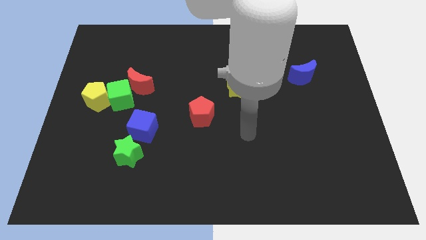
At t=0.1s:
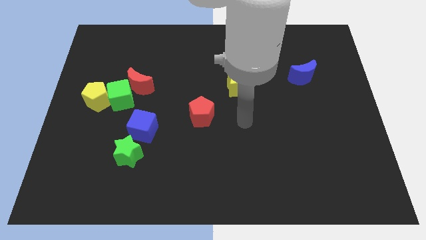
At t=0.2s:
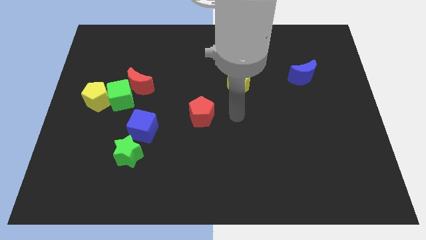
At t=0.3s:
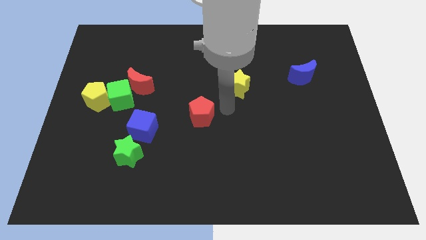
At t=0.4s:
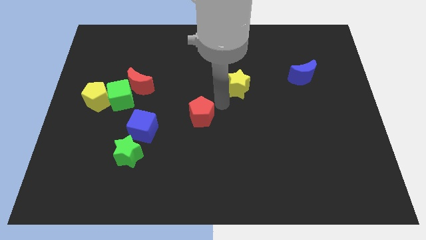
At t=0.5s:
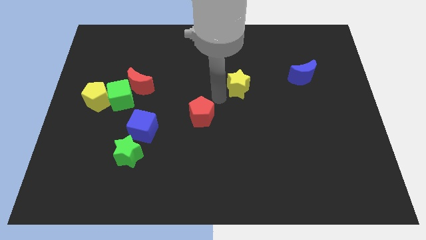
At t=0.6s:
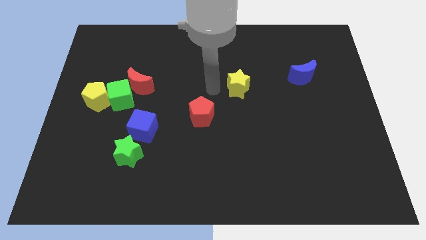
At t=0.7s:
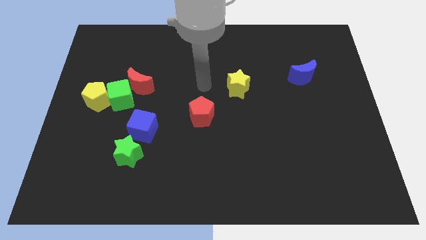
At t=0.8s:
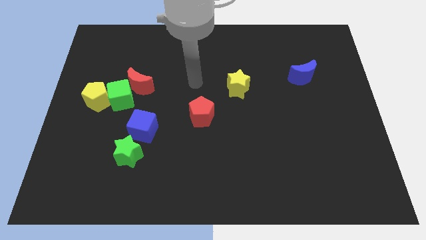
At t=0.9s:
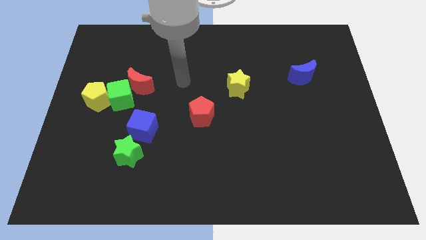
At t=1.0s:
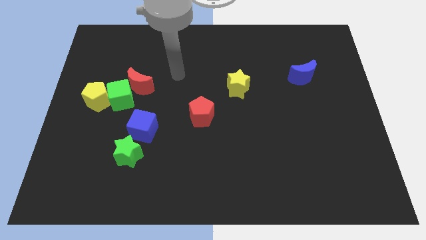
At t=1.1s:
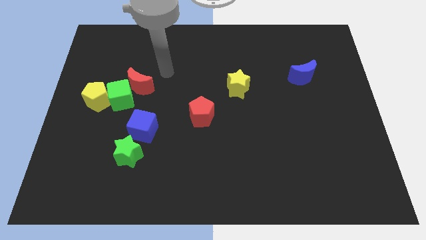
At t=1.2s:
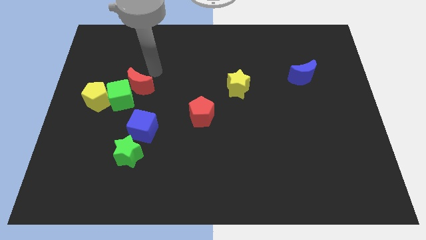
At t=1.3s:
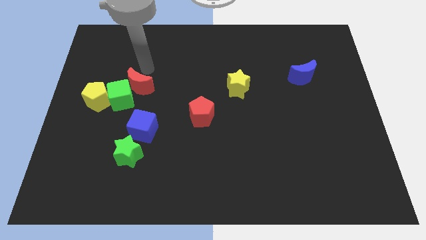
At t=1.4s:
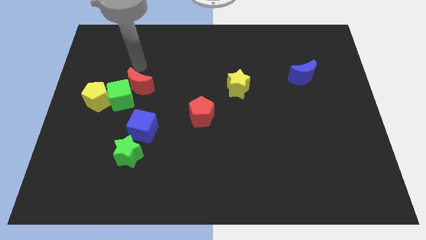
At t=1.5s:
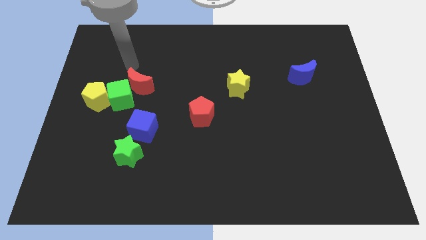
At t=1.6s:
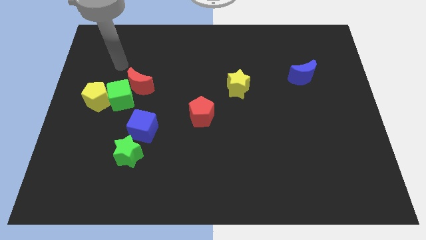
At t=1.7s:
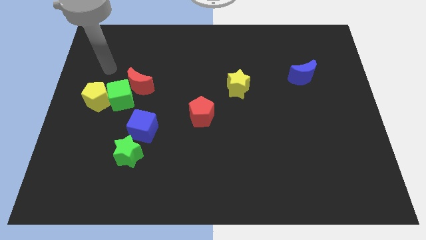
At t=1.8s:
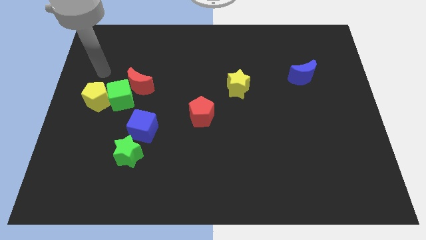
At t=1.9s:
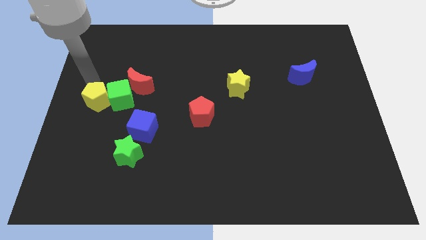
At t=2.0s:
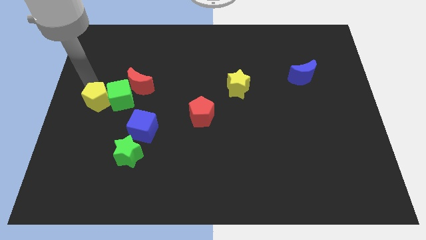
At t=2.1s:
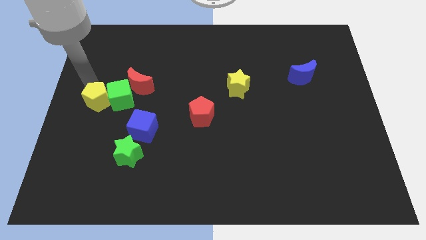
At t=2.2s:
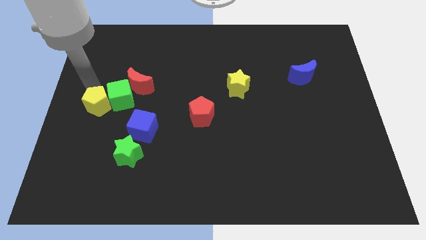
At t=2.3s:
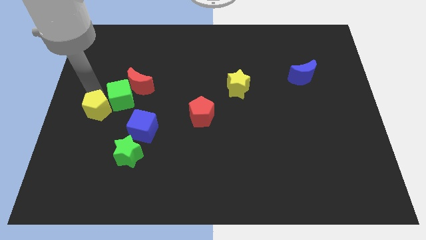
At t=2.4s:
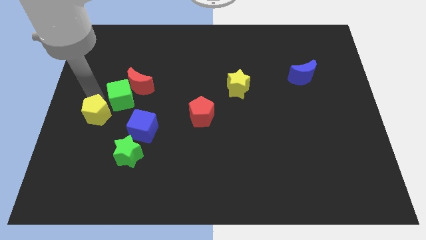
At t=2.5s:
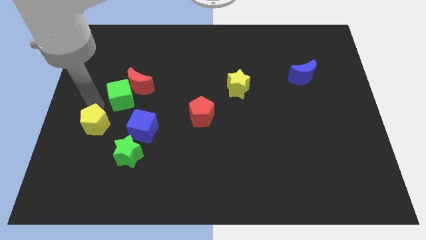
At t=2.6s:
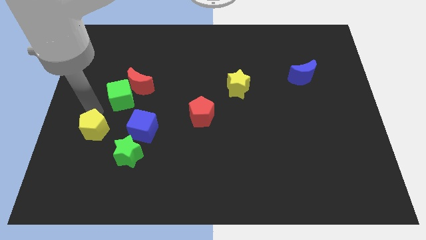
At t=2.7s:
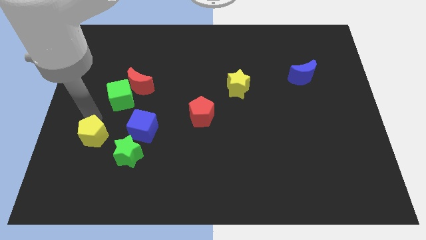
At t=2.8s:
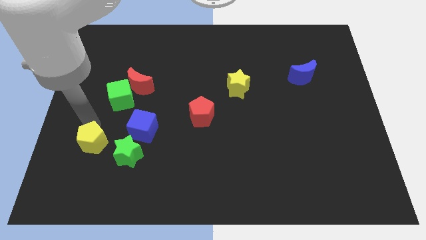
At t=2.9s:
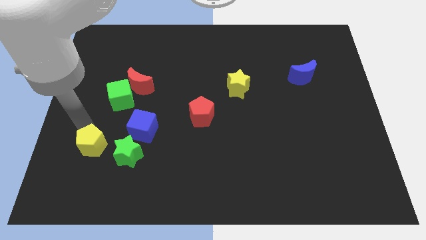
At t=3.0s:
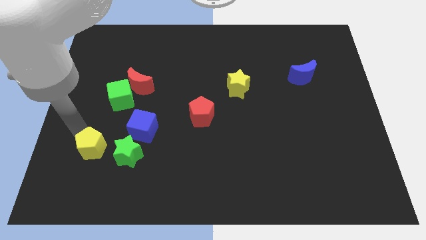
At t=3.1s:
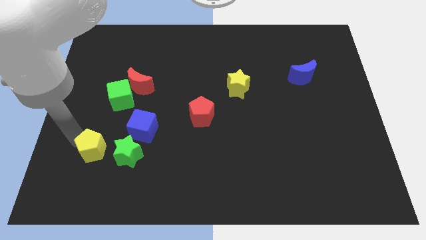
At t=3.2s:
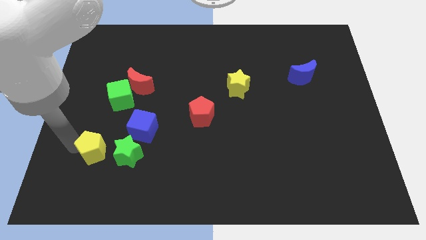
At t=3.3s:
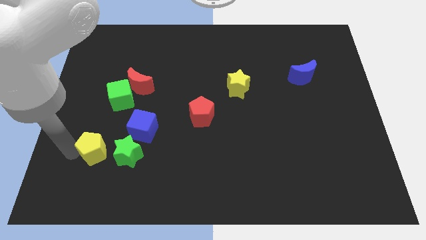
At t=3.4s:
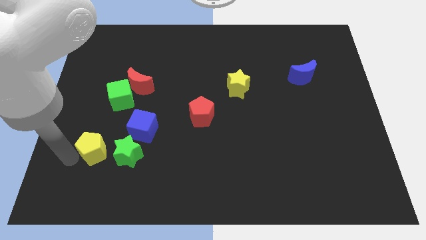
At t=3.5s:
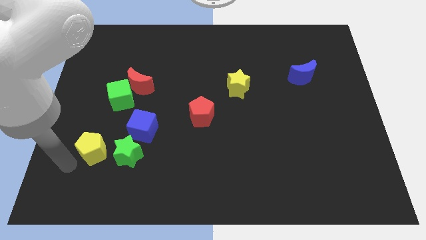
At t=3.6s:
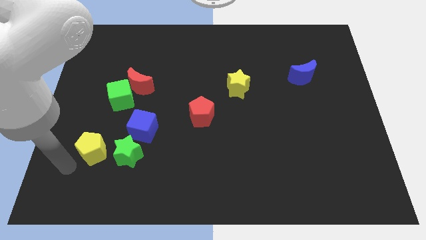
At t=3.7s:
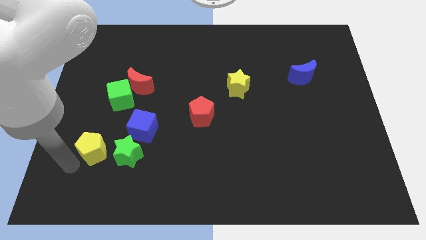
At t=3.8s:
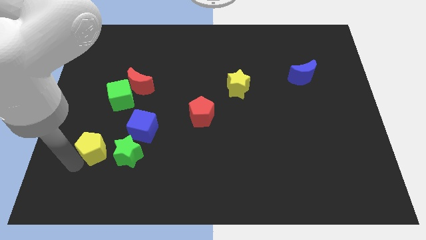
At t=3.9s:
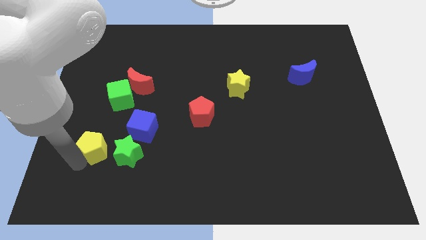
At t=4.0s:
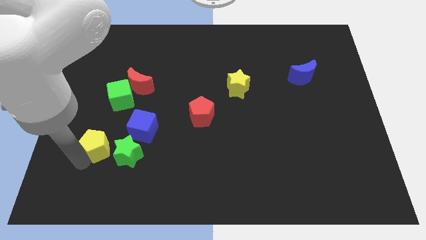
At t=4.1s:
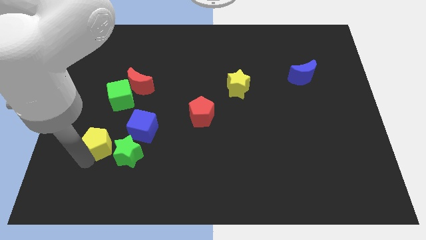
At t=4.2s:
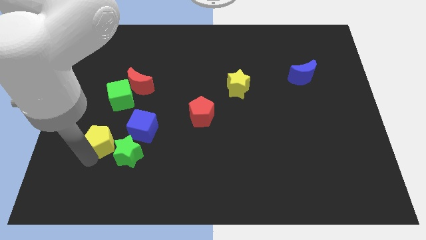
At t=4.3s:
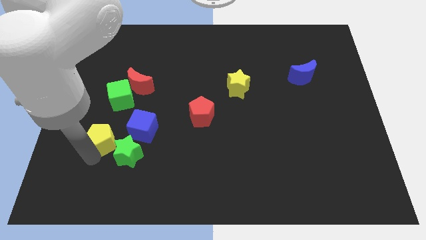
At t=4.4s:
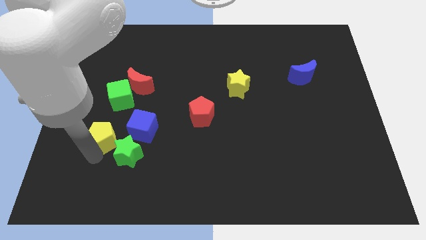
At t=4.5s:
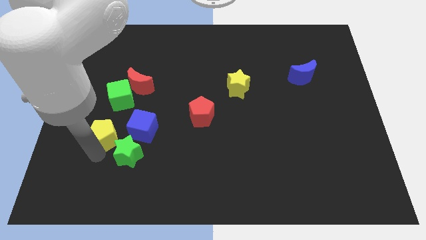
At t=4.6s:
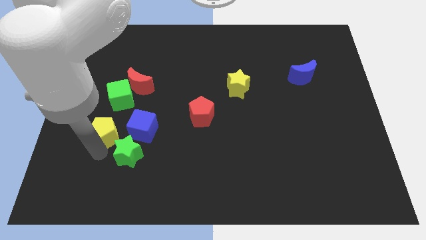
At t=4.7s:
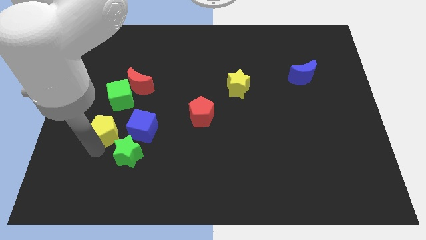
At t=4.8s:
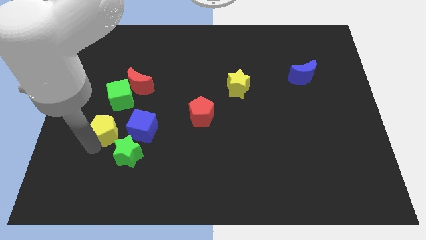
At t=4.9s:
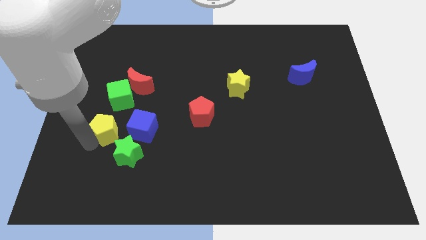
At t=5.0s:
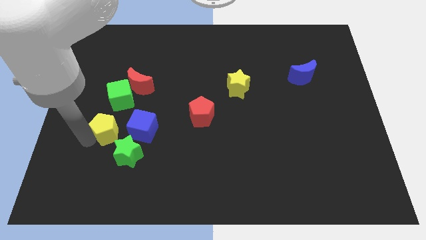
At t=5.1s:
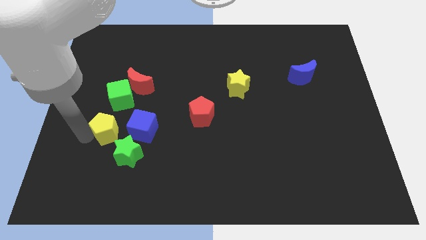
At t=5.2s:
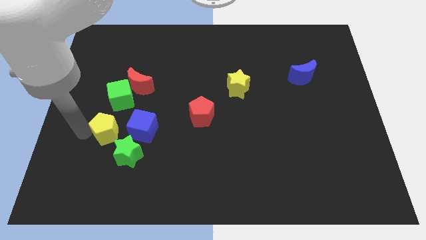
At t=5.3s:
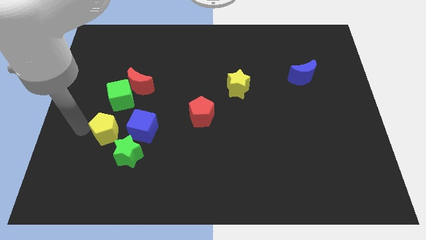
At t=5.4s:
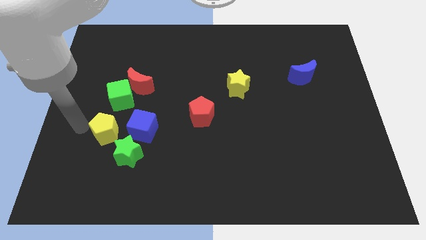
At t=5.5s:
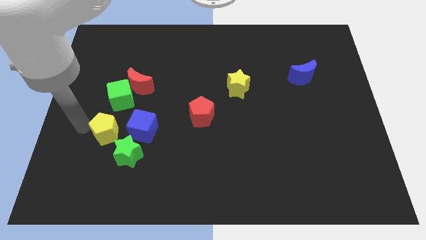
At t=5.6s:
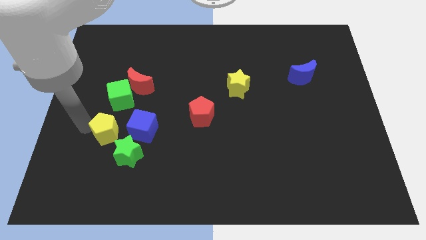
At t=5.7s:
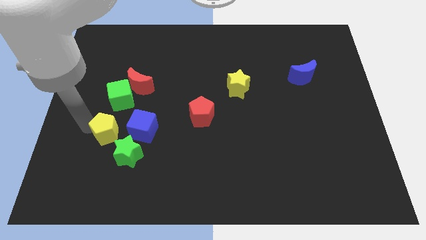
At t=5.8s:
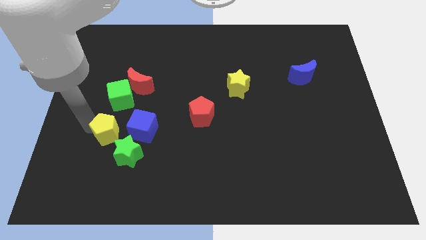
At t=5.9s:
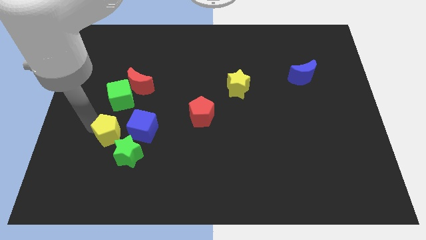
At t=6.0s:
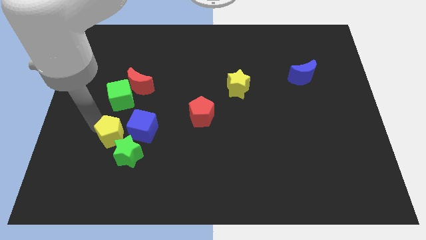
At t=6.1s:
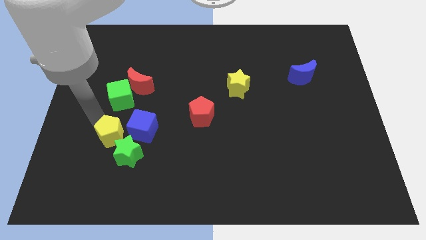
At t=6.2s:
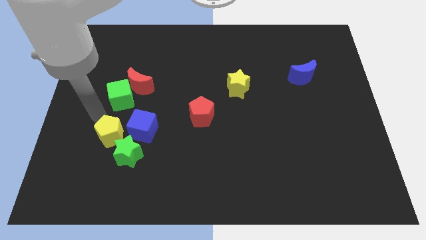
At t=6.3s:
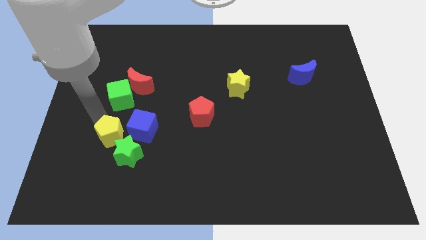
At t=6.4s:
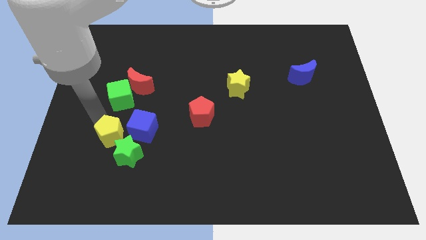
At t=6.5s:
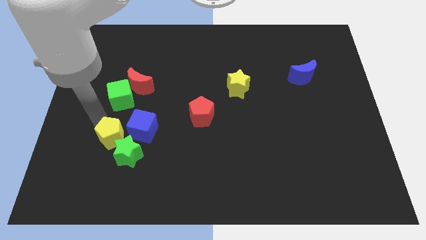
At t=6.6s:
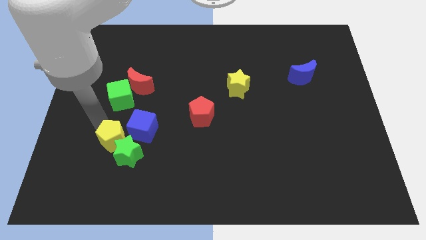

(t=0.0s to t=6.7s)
push the yellow pentagon close to the green star

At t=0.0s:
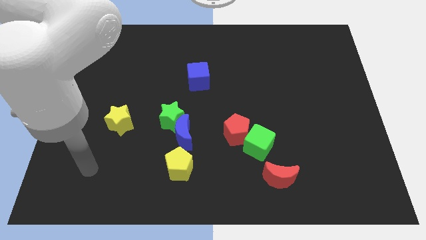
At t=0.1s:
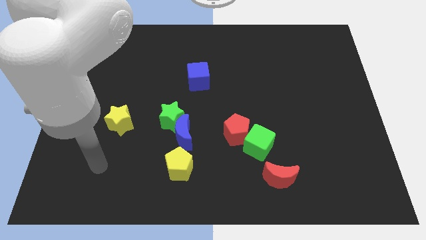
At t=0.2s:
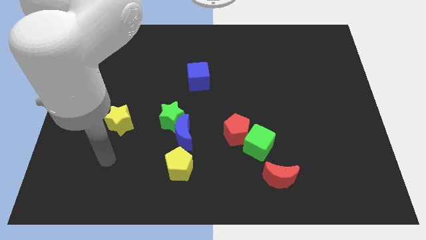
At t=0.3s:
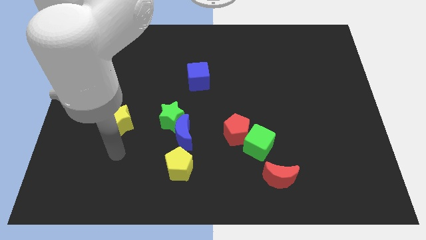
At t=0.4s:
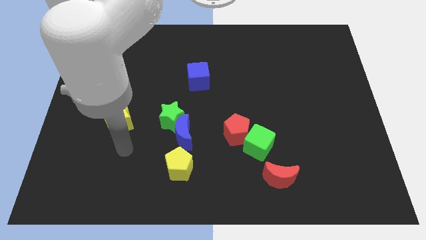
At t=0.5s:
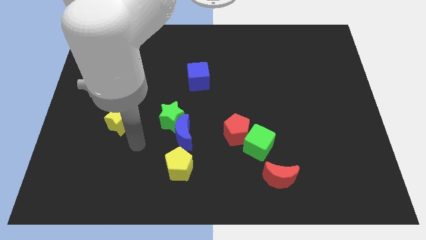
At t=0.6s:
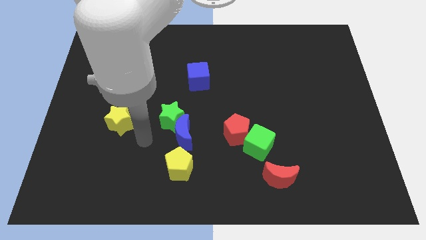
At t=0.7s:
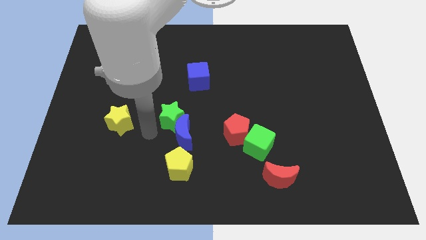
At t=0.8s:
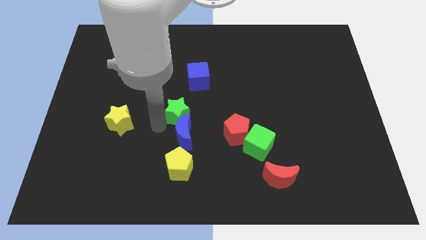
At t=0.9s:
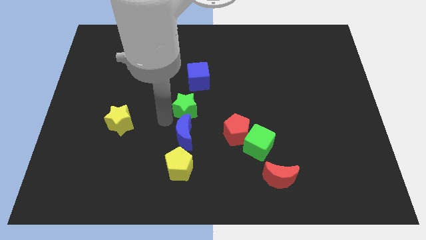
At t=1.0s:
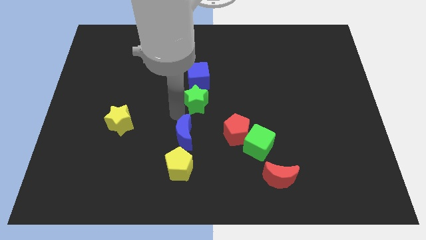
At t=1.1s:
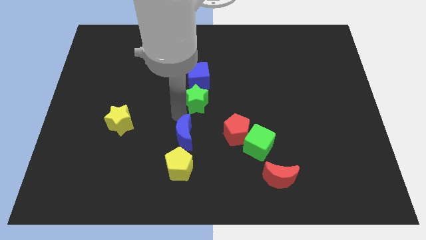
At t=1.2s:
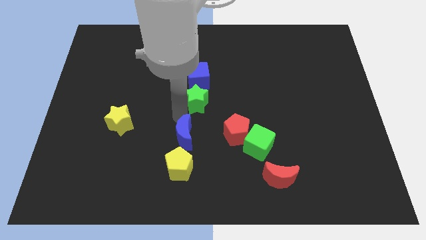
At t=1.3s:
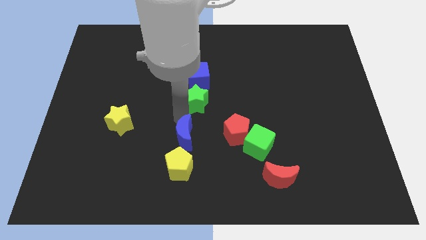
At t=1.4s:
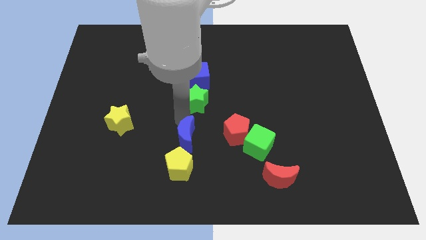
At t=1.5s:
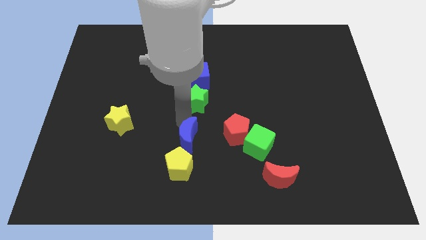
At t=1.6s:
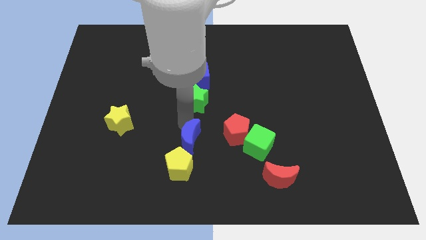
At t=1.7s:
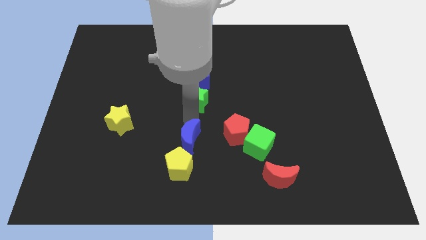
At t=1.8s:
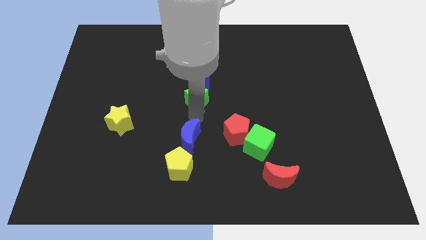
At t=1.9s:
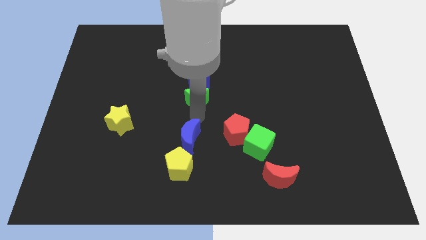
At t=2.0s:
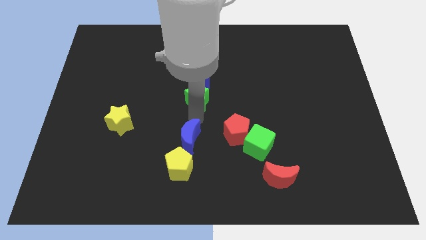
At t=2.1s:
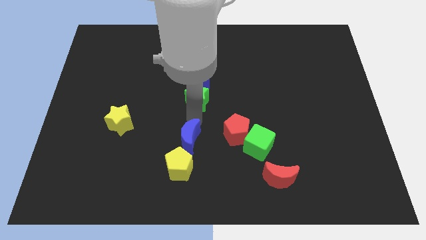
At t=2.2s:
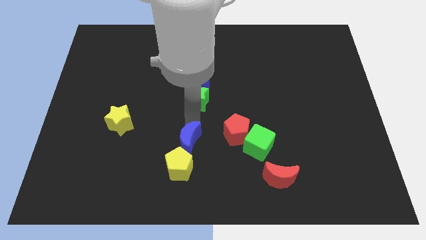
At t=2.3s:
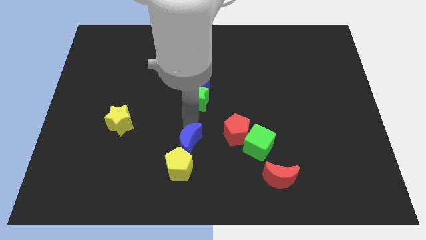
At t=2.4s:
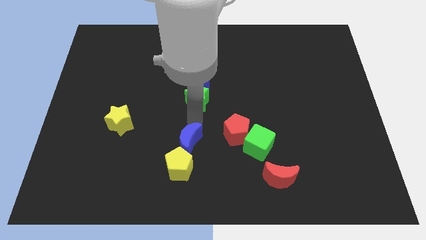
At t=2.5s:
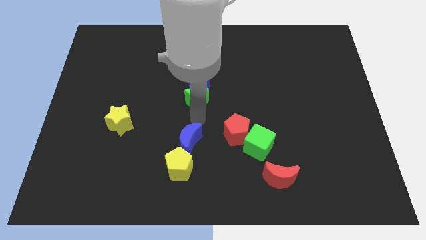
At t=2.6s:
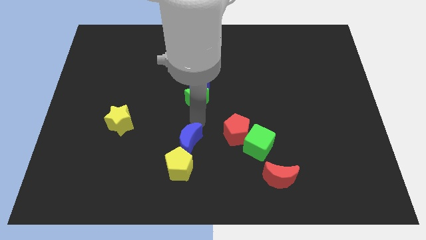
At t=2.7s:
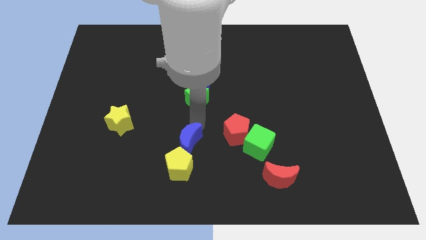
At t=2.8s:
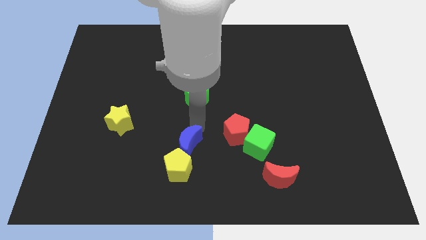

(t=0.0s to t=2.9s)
move the blue moon to the yellow pentagon
